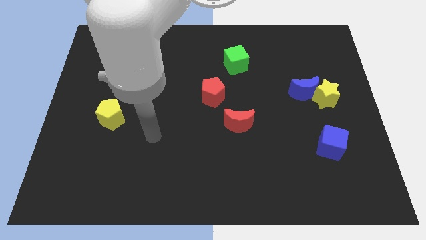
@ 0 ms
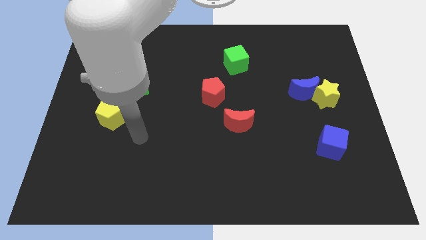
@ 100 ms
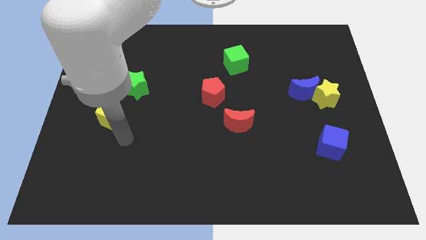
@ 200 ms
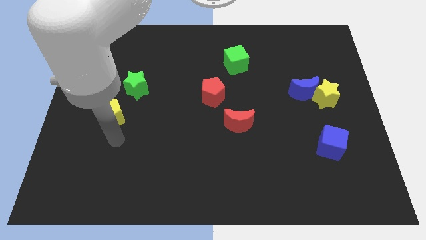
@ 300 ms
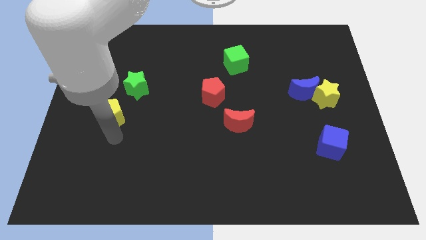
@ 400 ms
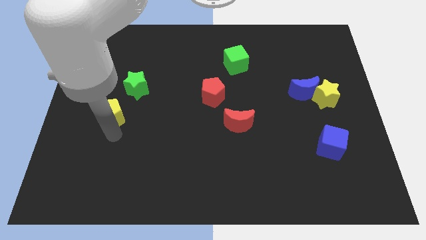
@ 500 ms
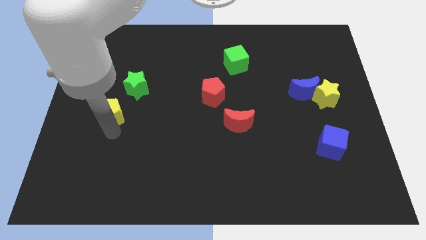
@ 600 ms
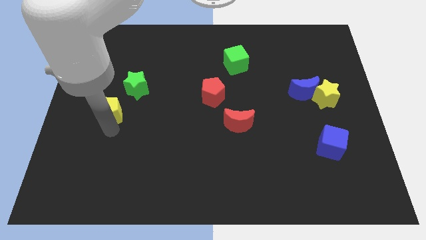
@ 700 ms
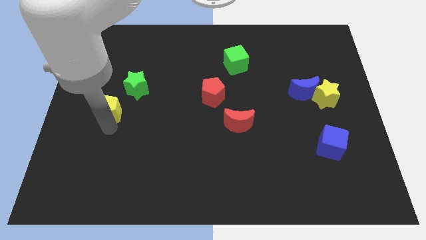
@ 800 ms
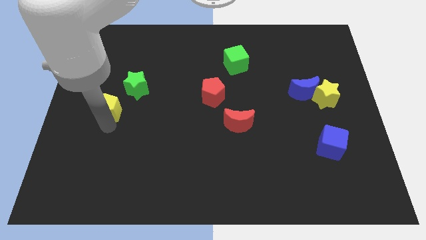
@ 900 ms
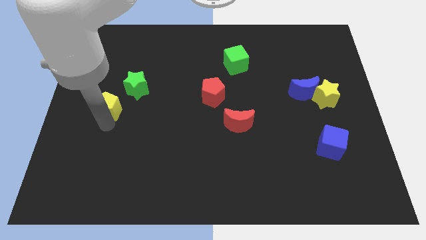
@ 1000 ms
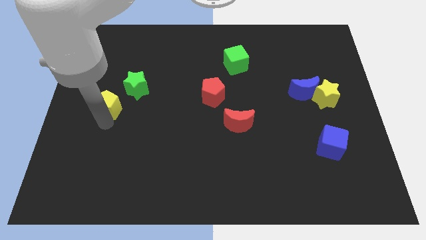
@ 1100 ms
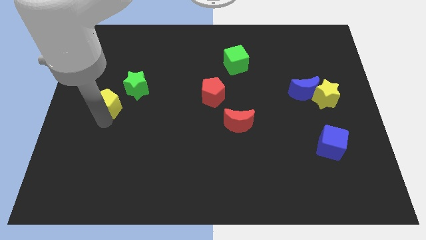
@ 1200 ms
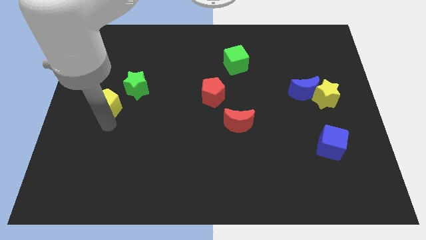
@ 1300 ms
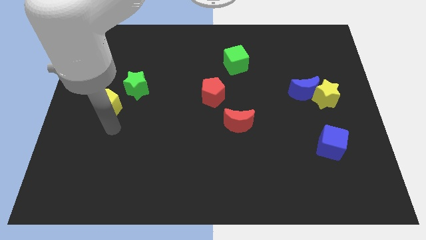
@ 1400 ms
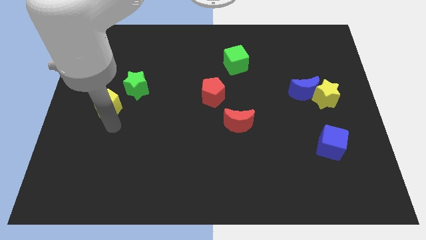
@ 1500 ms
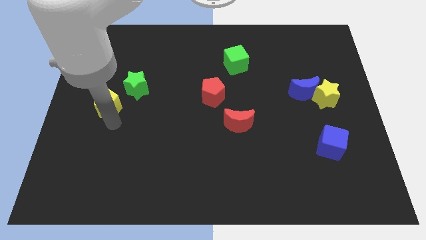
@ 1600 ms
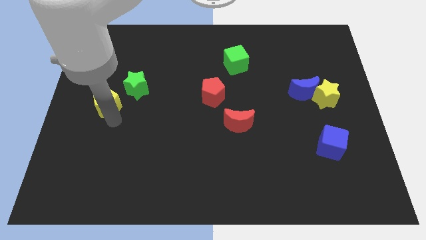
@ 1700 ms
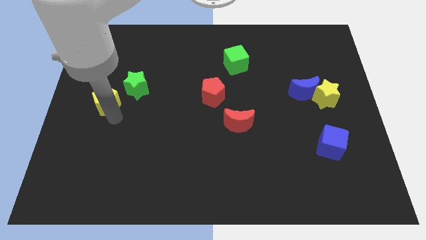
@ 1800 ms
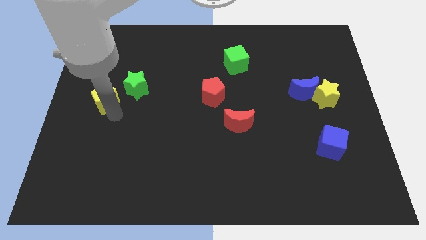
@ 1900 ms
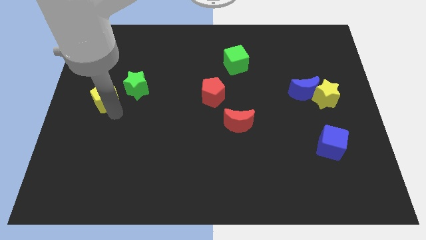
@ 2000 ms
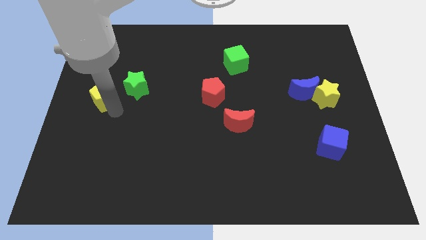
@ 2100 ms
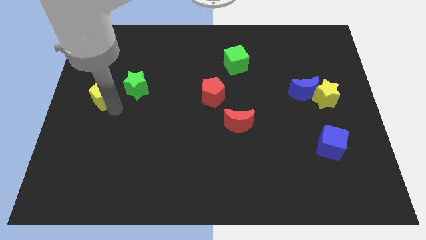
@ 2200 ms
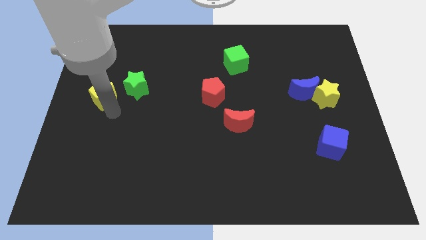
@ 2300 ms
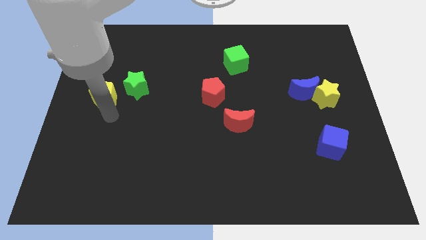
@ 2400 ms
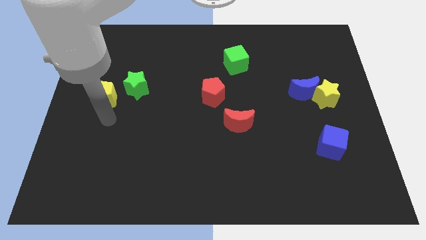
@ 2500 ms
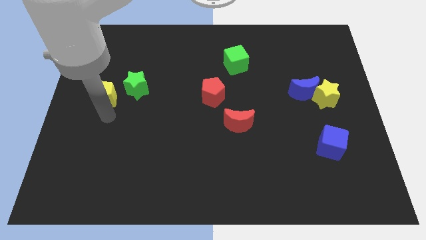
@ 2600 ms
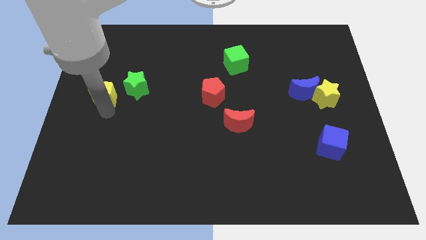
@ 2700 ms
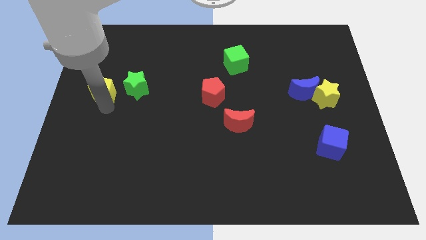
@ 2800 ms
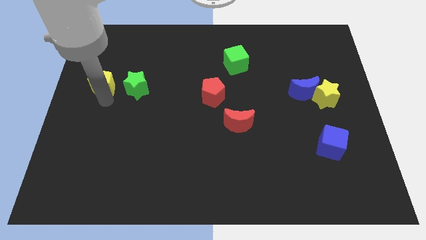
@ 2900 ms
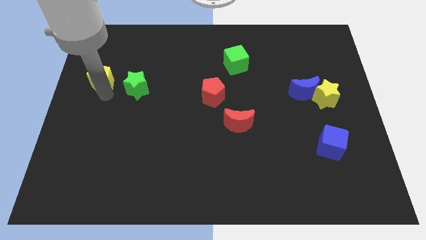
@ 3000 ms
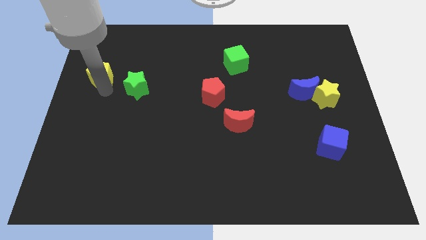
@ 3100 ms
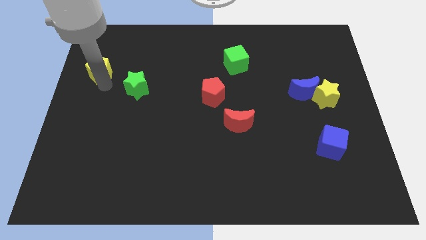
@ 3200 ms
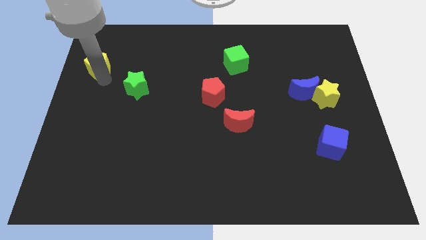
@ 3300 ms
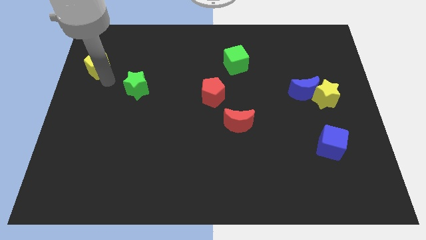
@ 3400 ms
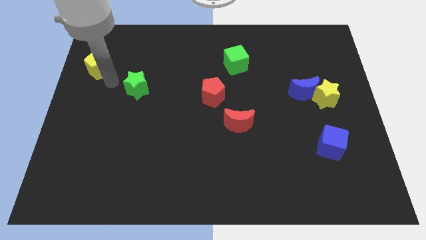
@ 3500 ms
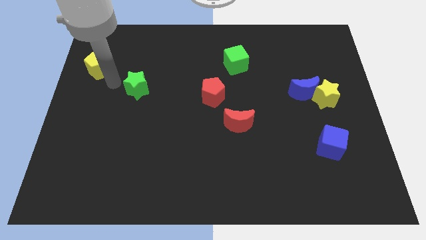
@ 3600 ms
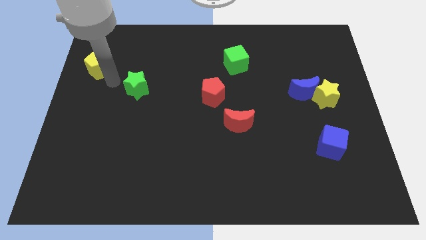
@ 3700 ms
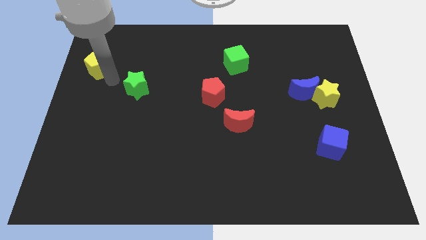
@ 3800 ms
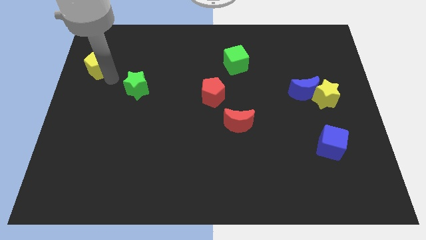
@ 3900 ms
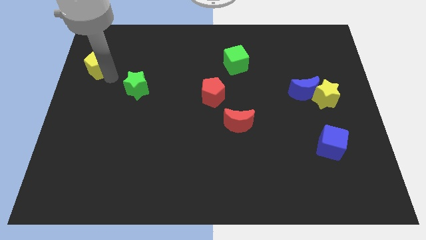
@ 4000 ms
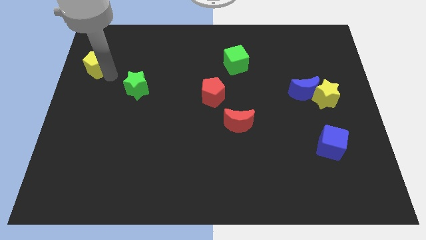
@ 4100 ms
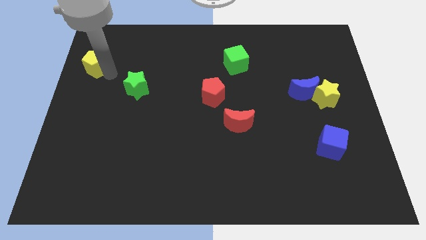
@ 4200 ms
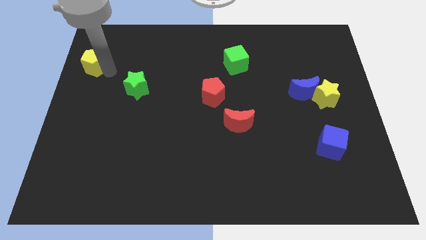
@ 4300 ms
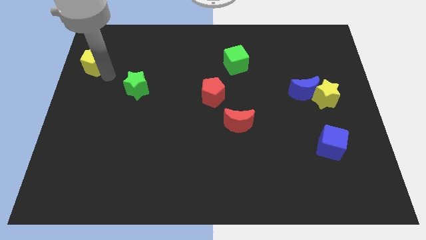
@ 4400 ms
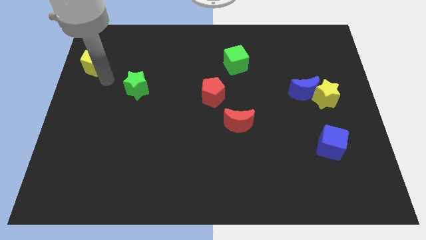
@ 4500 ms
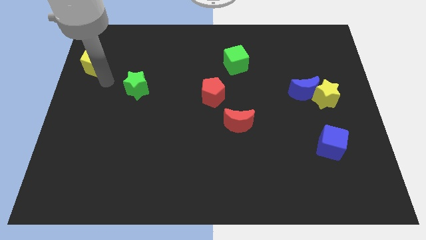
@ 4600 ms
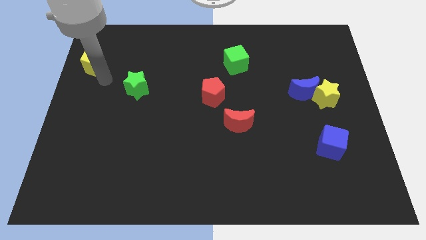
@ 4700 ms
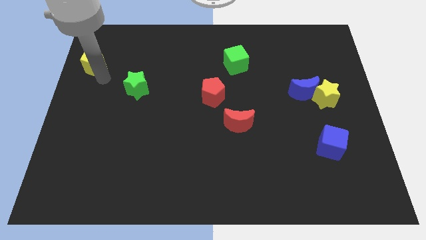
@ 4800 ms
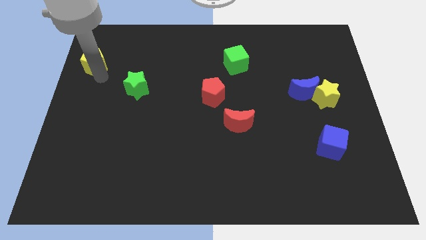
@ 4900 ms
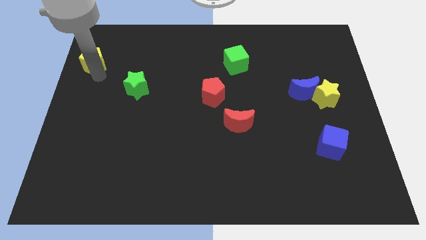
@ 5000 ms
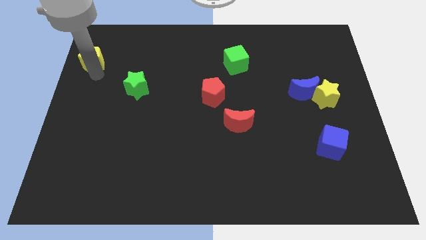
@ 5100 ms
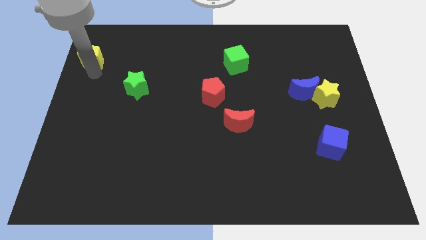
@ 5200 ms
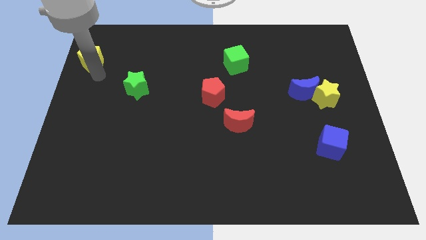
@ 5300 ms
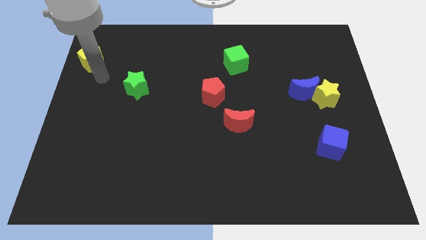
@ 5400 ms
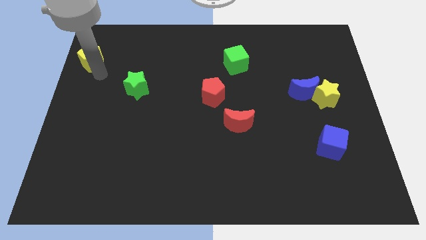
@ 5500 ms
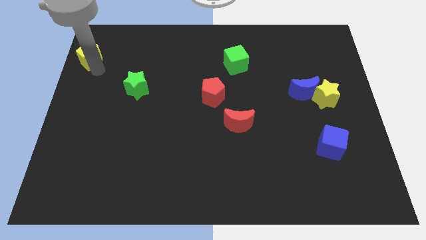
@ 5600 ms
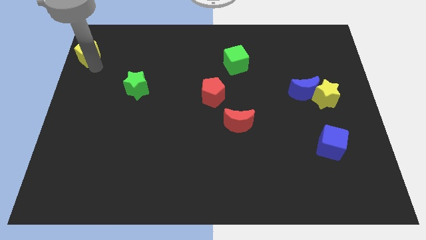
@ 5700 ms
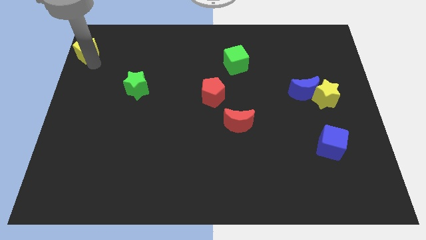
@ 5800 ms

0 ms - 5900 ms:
push the yellow pentagon to the top left of the board

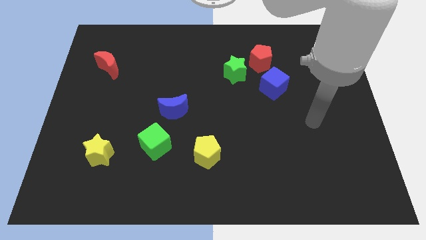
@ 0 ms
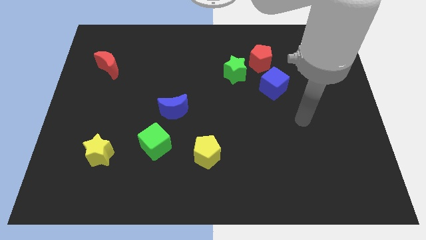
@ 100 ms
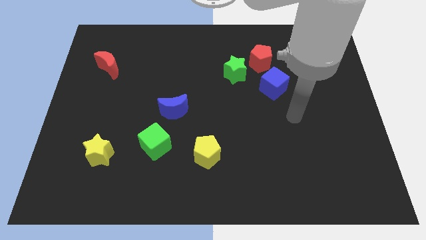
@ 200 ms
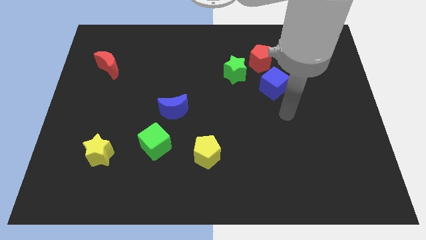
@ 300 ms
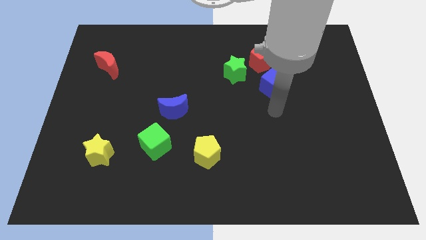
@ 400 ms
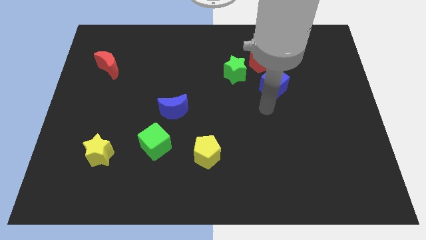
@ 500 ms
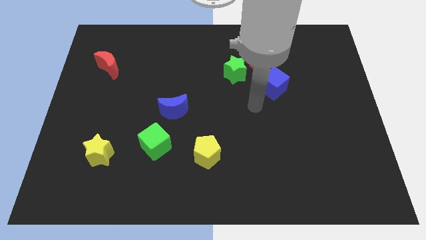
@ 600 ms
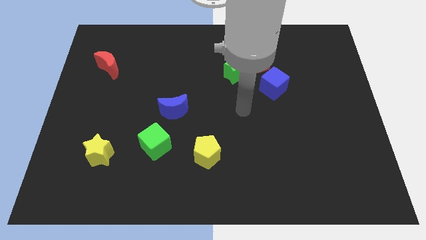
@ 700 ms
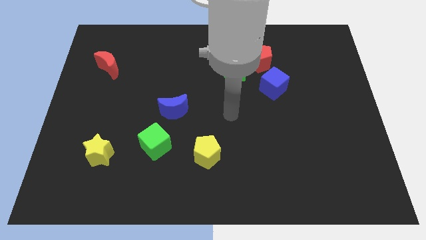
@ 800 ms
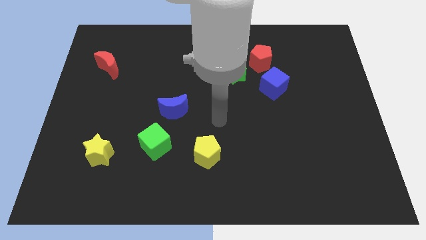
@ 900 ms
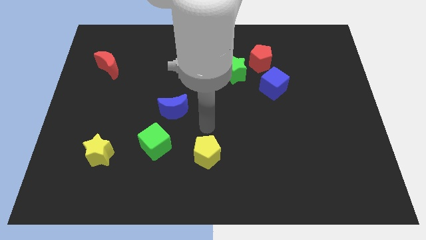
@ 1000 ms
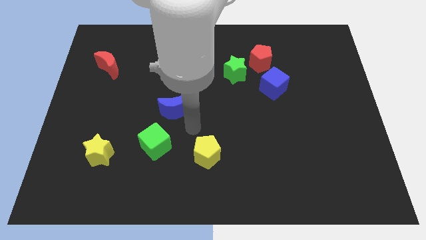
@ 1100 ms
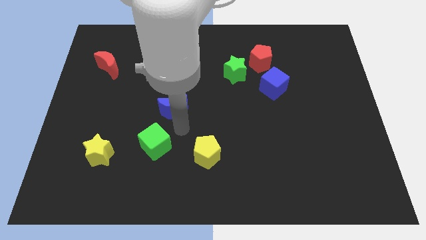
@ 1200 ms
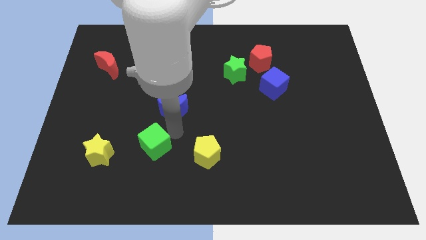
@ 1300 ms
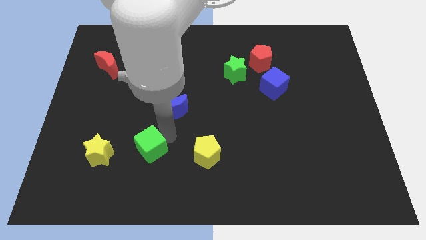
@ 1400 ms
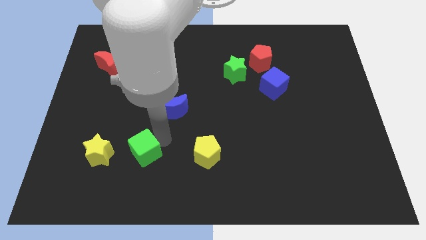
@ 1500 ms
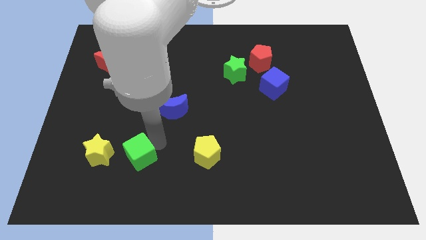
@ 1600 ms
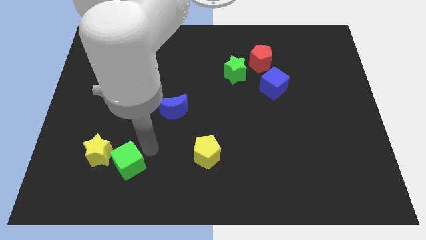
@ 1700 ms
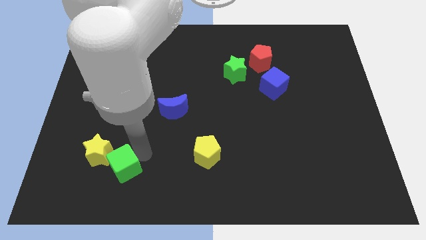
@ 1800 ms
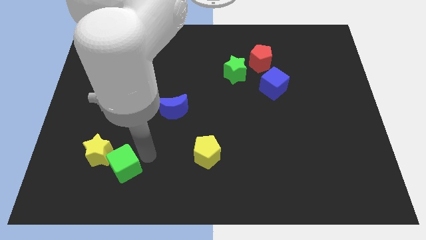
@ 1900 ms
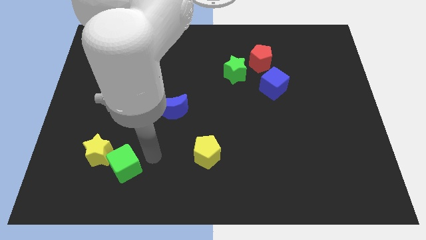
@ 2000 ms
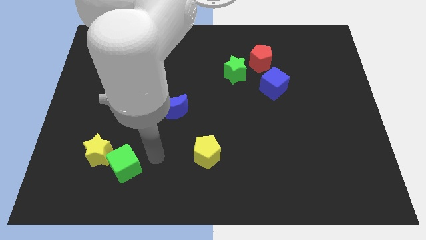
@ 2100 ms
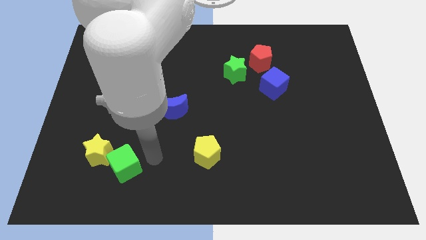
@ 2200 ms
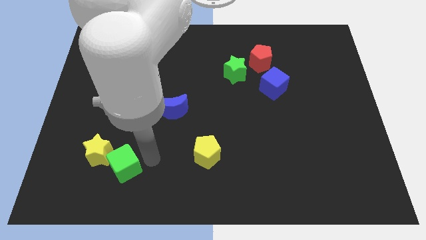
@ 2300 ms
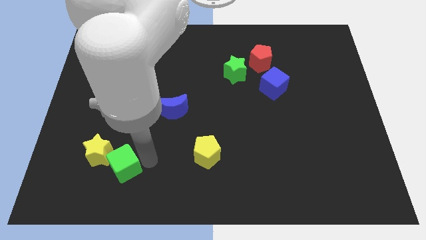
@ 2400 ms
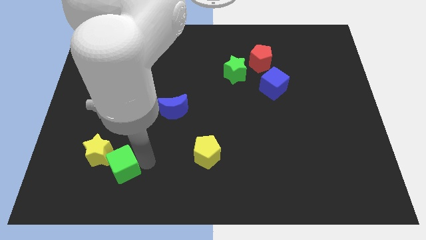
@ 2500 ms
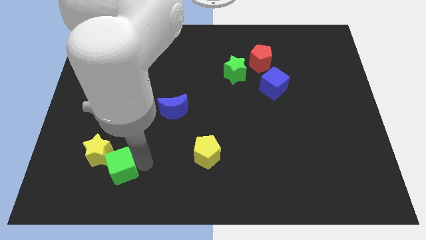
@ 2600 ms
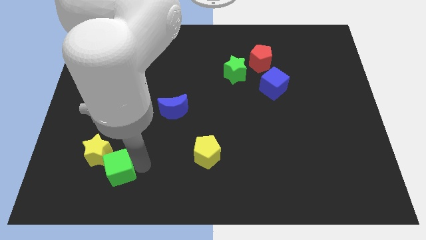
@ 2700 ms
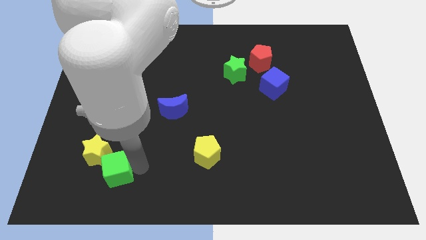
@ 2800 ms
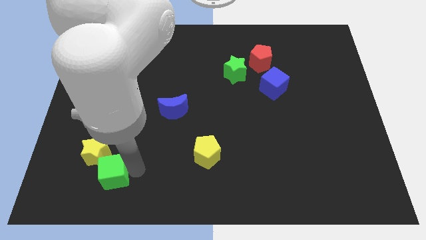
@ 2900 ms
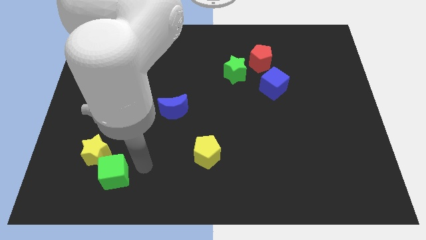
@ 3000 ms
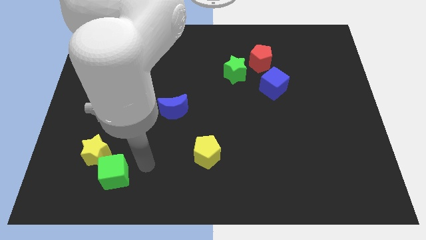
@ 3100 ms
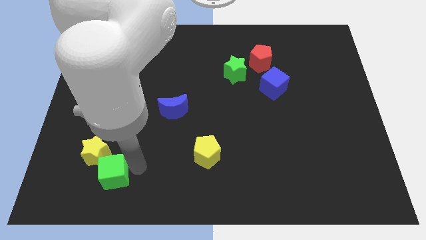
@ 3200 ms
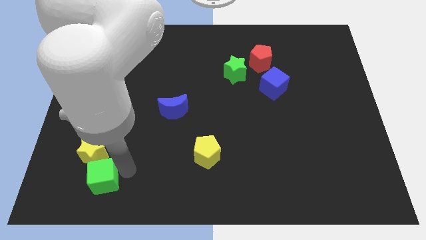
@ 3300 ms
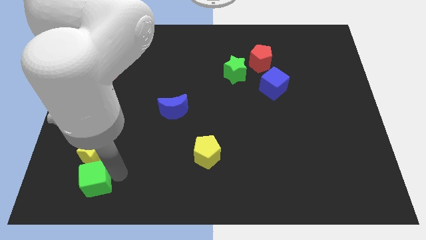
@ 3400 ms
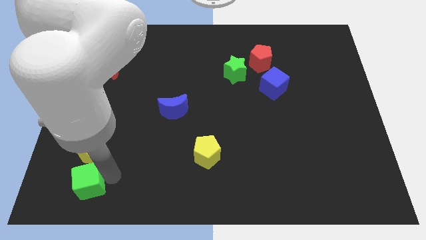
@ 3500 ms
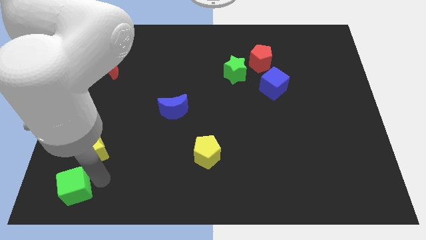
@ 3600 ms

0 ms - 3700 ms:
push the green cube to the bottom left
